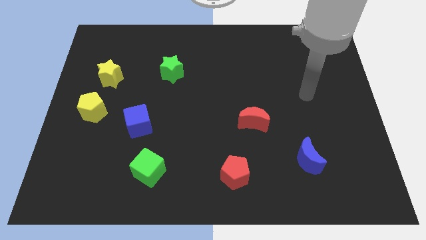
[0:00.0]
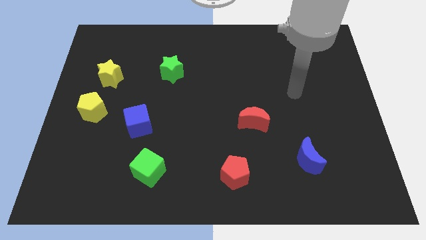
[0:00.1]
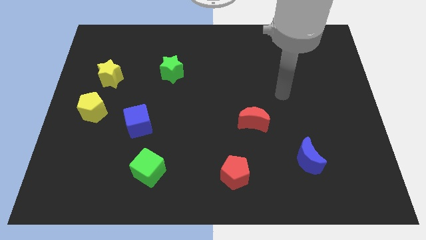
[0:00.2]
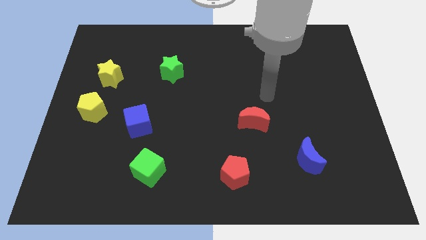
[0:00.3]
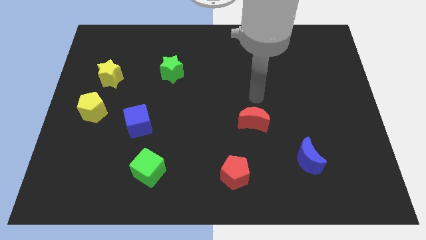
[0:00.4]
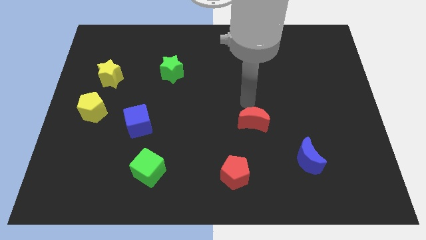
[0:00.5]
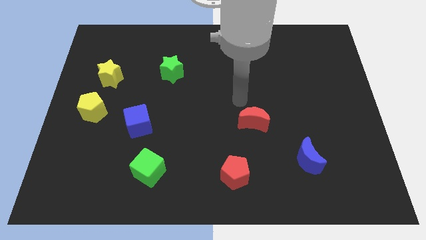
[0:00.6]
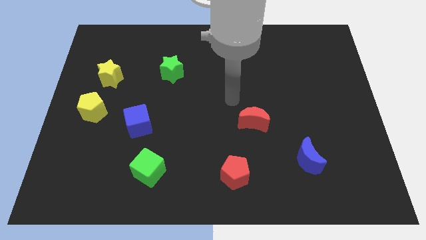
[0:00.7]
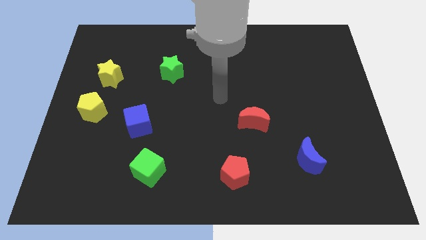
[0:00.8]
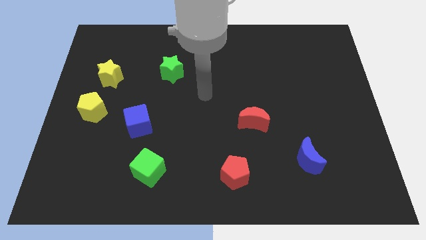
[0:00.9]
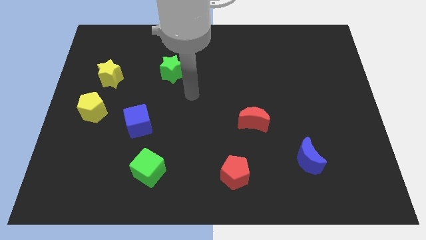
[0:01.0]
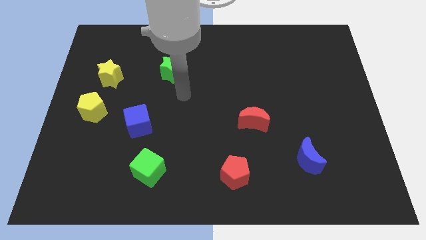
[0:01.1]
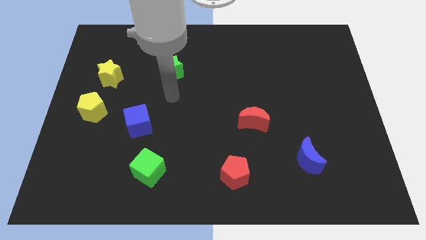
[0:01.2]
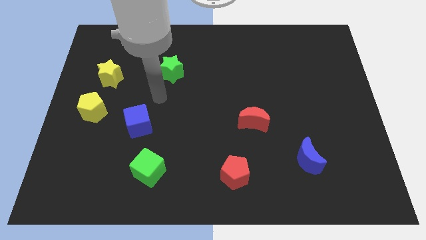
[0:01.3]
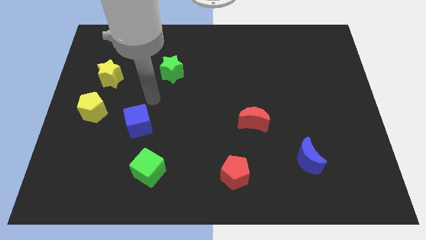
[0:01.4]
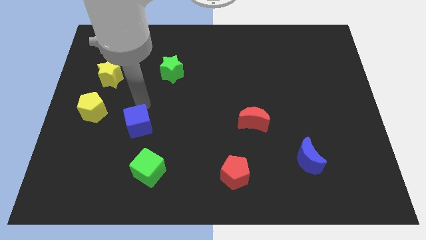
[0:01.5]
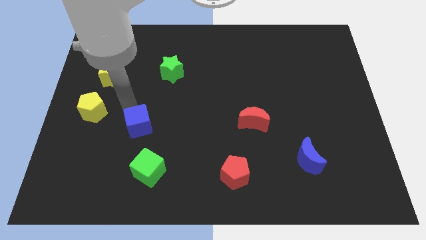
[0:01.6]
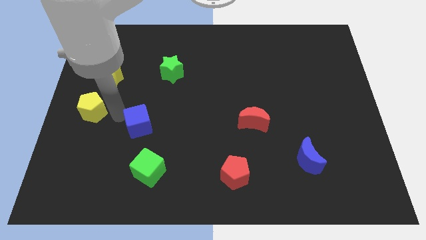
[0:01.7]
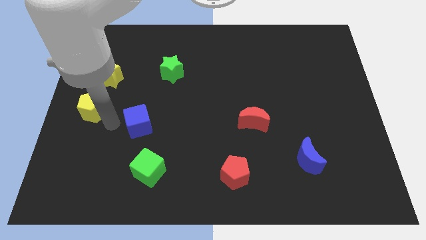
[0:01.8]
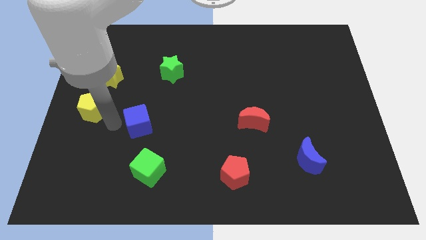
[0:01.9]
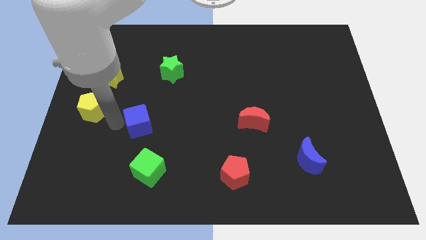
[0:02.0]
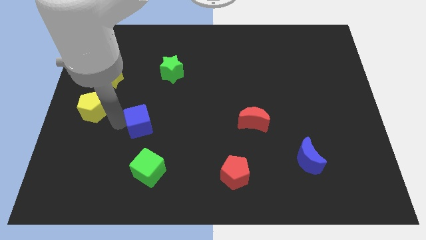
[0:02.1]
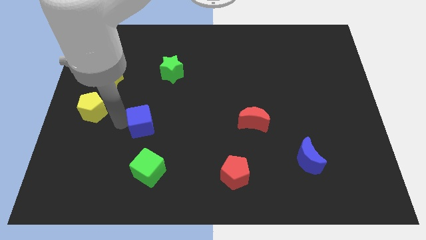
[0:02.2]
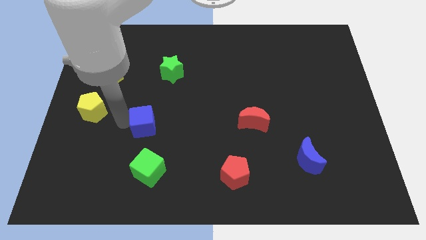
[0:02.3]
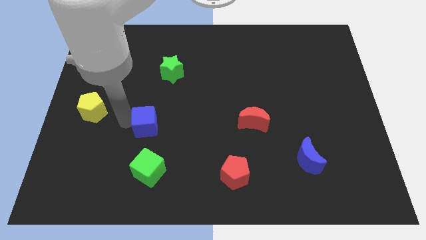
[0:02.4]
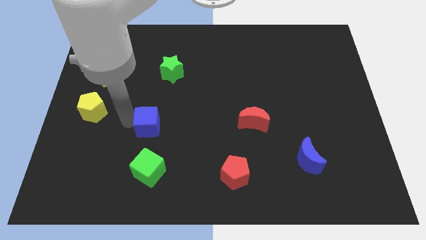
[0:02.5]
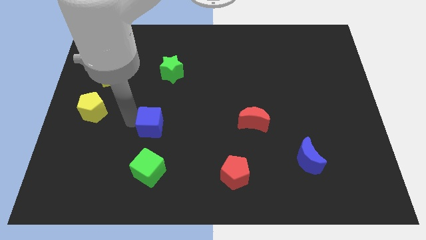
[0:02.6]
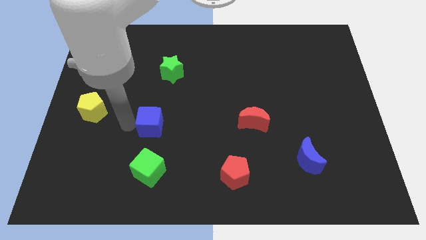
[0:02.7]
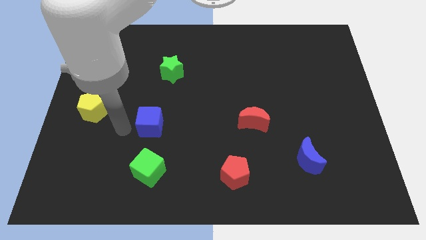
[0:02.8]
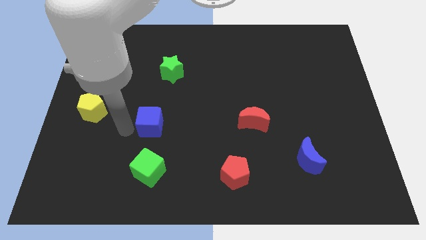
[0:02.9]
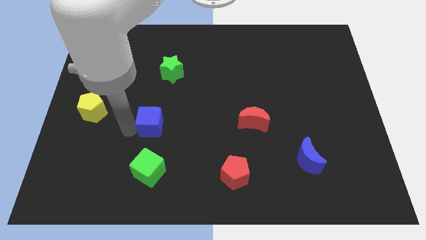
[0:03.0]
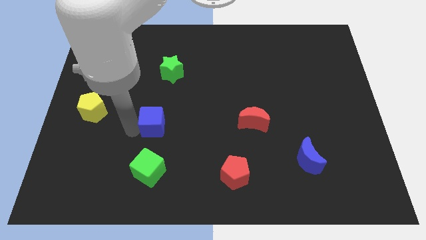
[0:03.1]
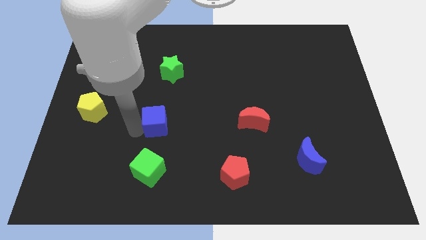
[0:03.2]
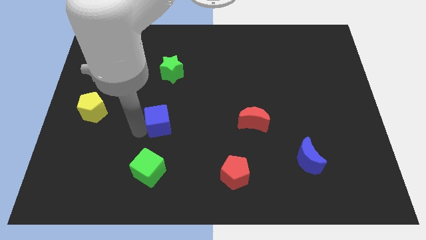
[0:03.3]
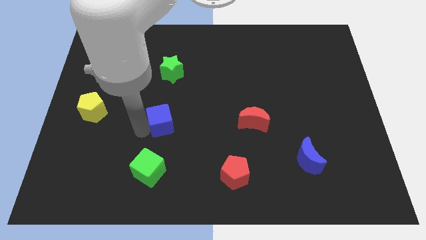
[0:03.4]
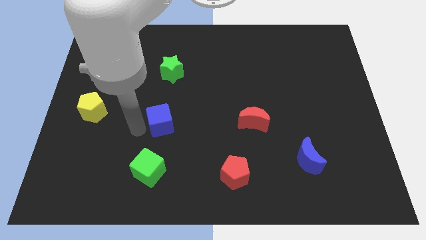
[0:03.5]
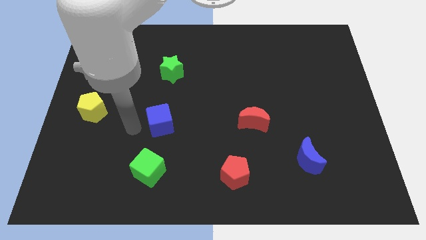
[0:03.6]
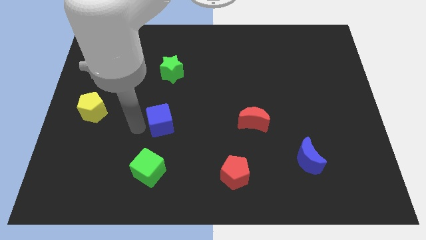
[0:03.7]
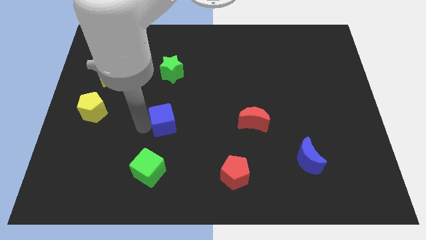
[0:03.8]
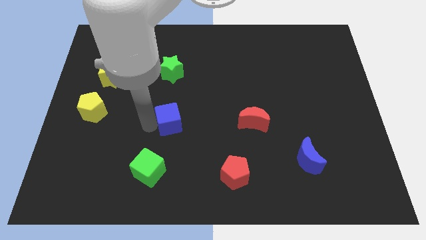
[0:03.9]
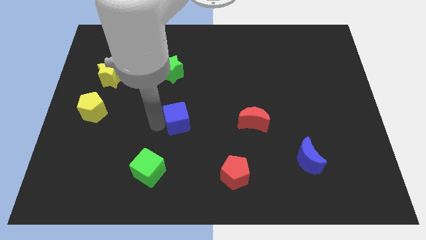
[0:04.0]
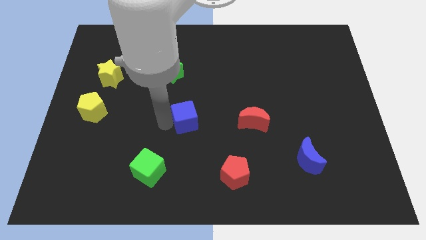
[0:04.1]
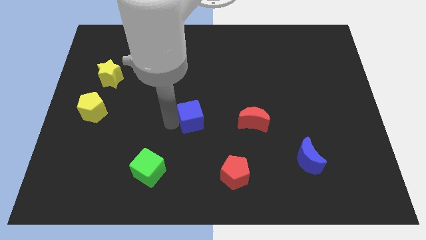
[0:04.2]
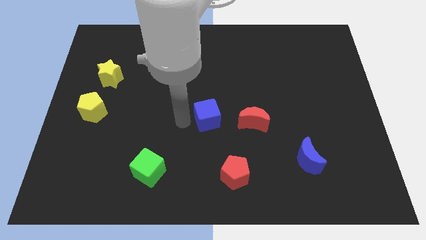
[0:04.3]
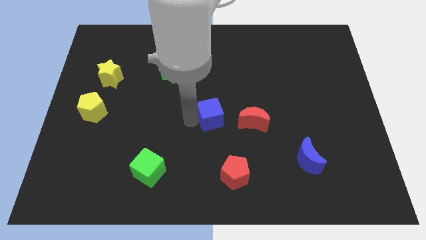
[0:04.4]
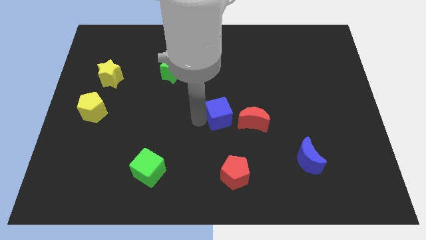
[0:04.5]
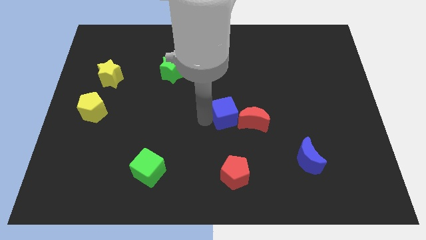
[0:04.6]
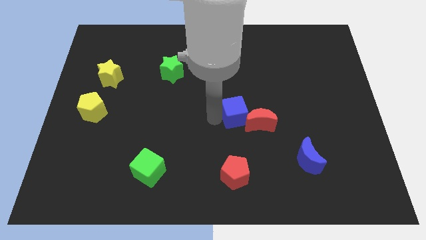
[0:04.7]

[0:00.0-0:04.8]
slide the blue cube right

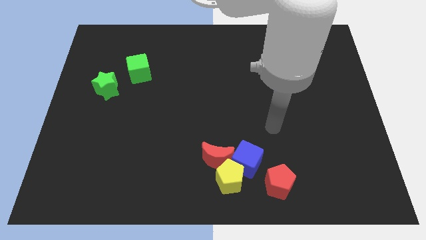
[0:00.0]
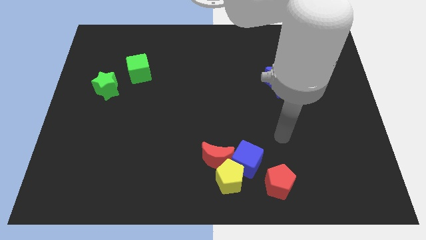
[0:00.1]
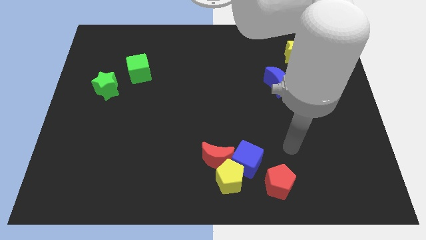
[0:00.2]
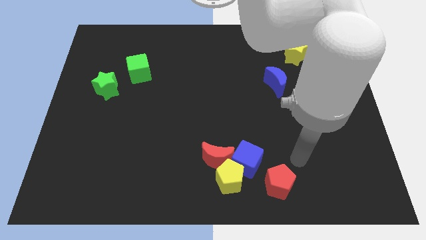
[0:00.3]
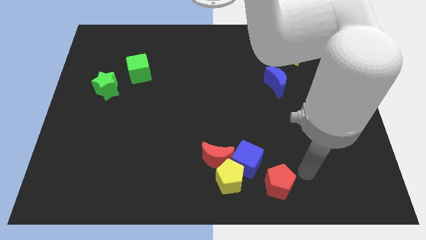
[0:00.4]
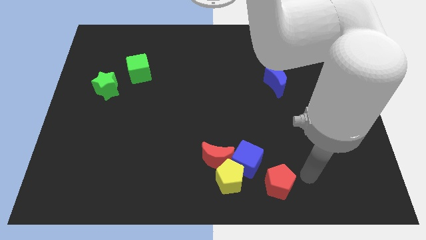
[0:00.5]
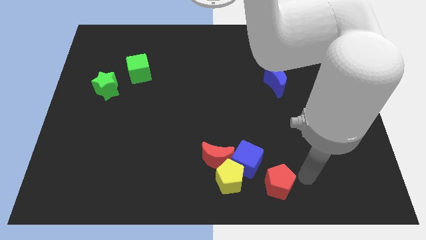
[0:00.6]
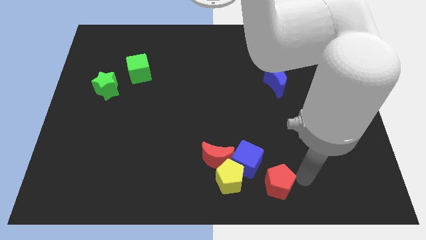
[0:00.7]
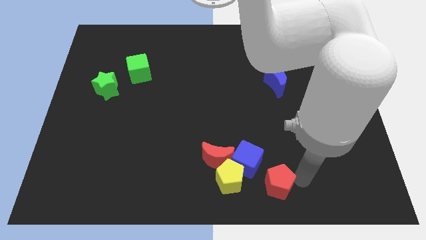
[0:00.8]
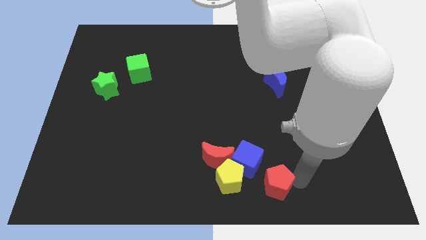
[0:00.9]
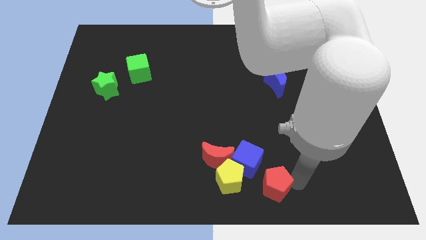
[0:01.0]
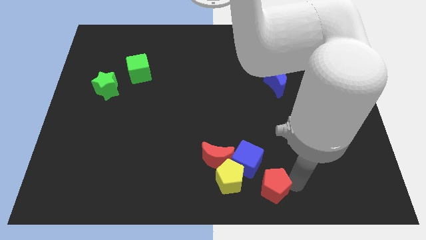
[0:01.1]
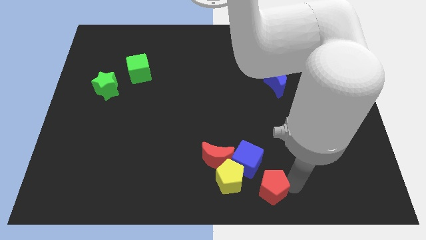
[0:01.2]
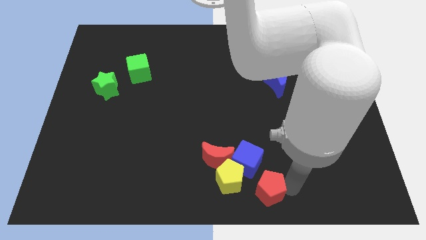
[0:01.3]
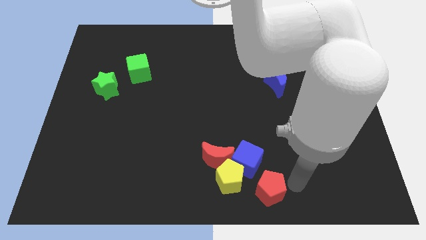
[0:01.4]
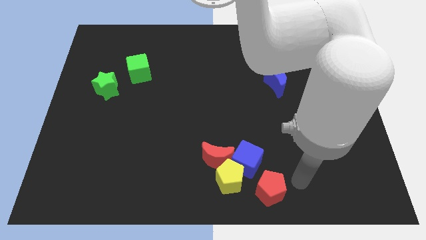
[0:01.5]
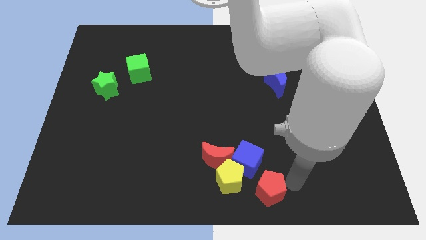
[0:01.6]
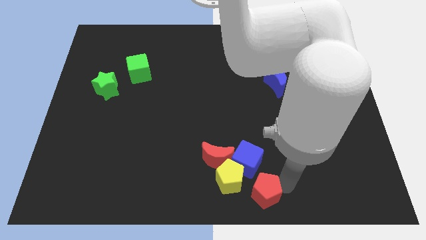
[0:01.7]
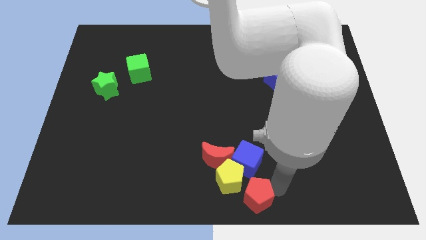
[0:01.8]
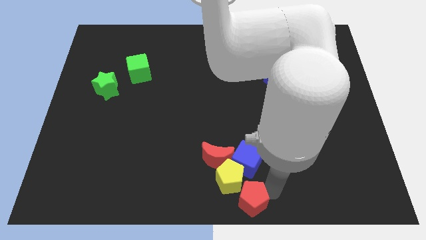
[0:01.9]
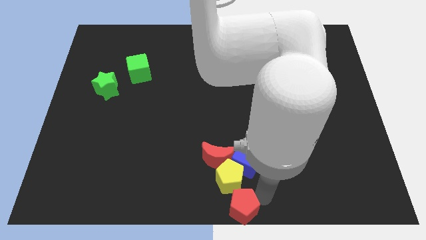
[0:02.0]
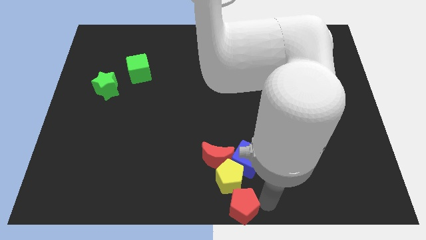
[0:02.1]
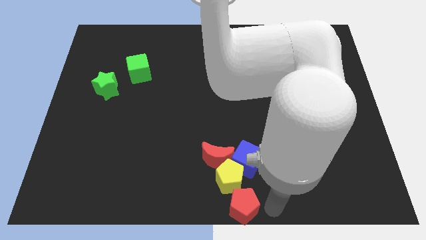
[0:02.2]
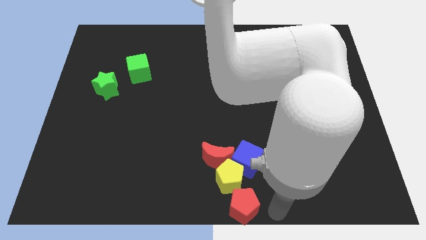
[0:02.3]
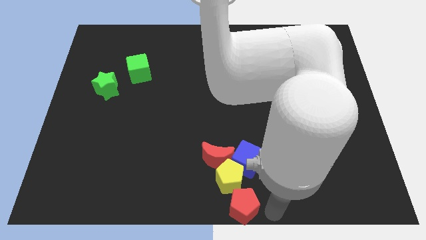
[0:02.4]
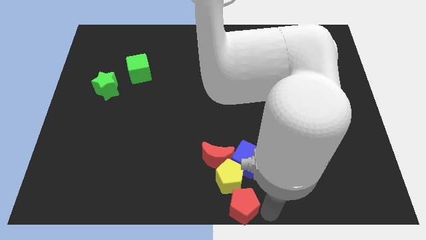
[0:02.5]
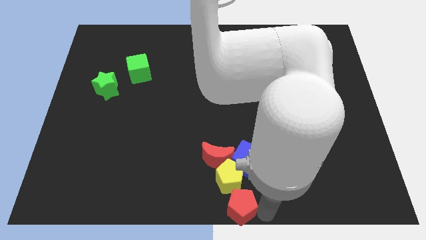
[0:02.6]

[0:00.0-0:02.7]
move the red pentagon left slightly

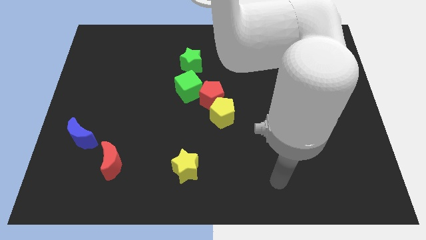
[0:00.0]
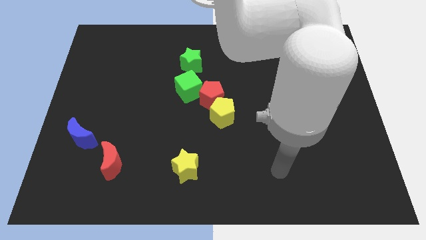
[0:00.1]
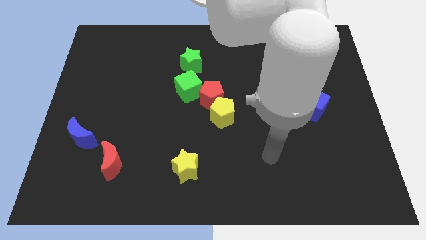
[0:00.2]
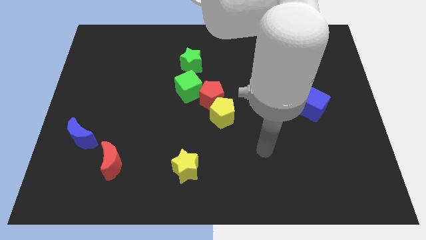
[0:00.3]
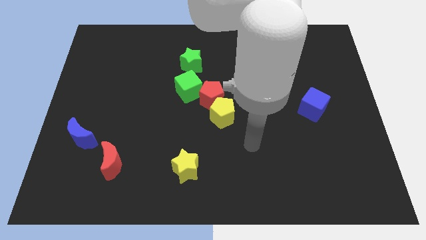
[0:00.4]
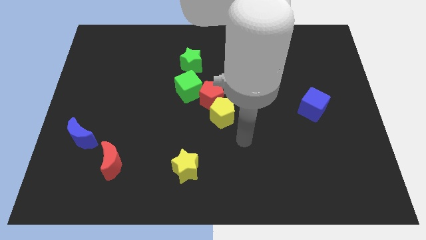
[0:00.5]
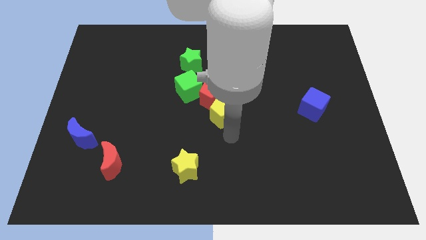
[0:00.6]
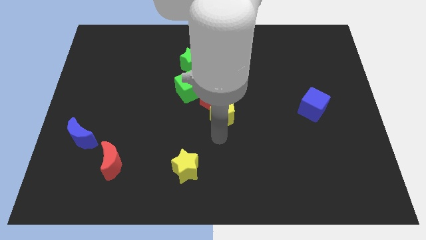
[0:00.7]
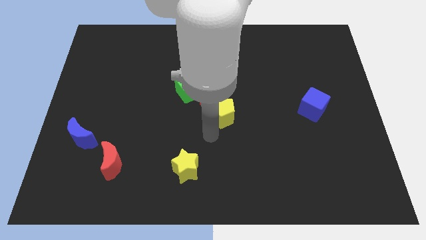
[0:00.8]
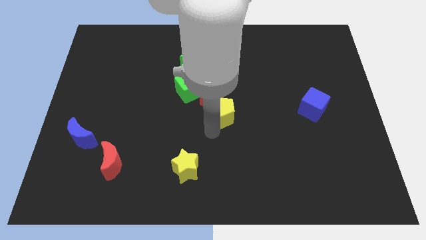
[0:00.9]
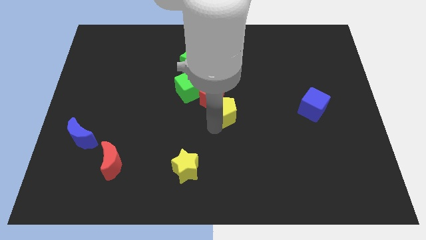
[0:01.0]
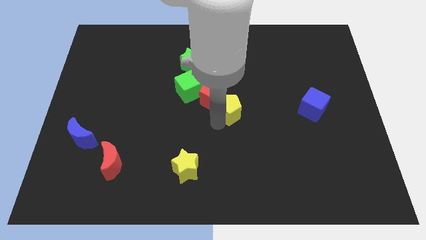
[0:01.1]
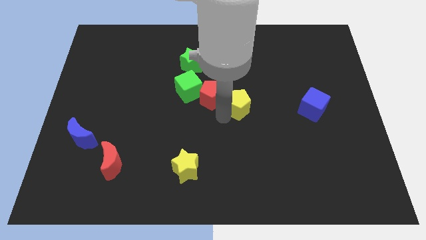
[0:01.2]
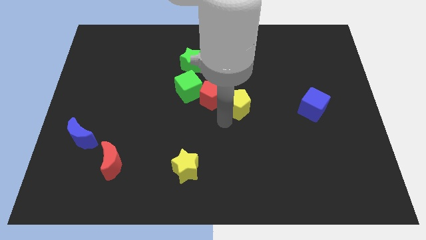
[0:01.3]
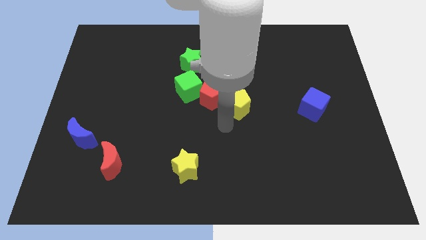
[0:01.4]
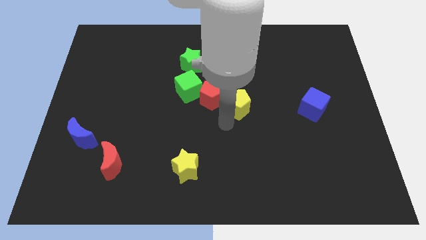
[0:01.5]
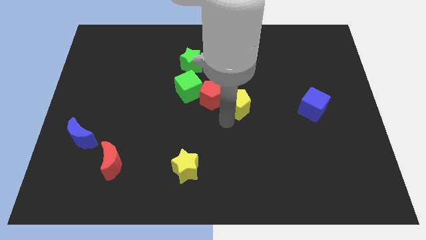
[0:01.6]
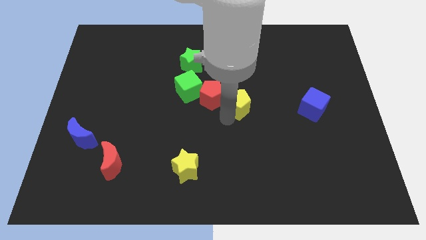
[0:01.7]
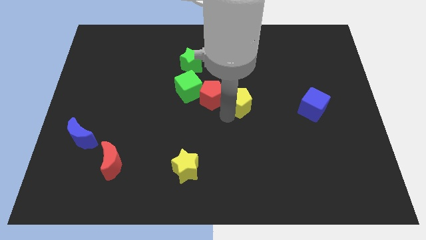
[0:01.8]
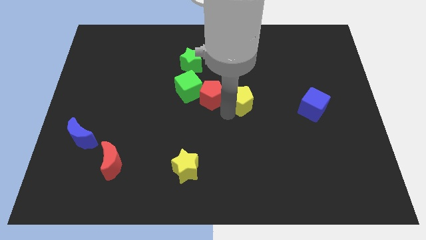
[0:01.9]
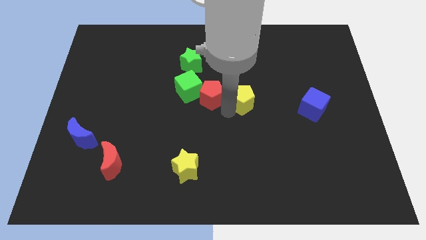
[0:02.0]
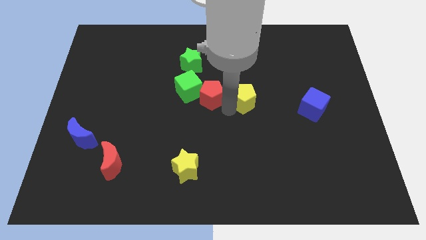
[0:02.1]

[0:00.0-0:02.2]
push the yellow pentagon diagonally up and to the right a little bit
